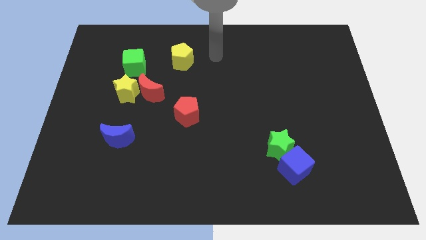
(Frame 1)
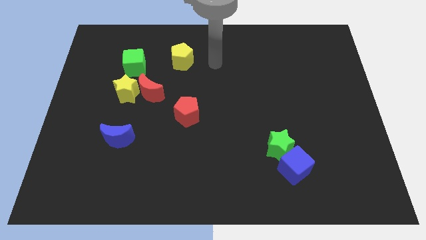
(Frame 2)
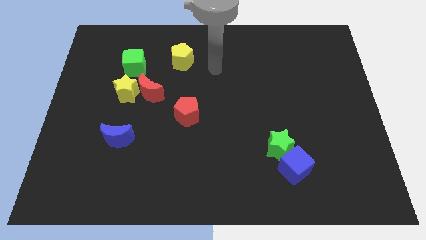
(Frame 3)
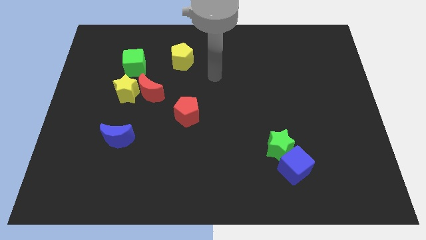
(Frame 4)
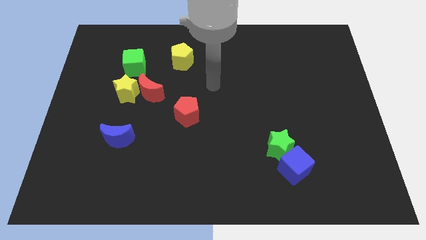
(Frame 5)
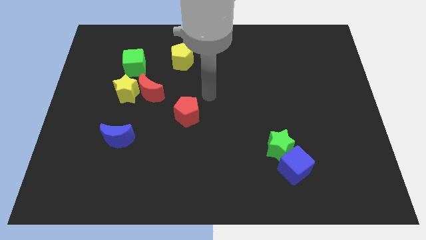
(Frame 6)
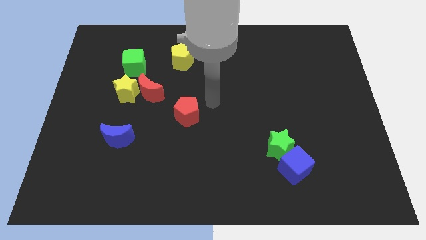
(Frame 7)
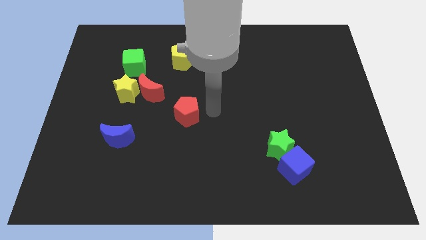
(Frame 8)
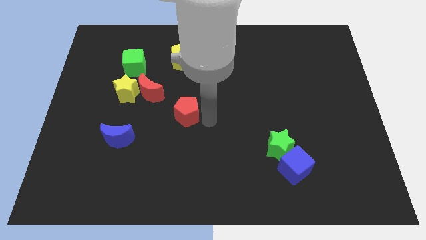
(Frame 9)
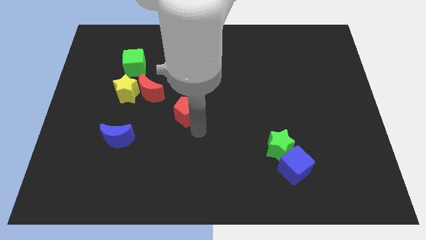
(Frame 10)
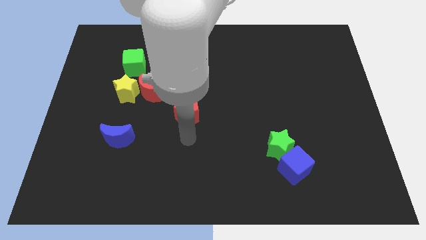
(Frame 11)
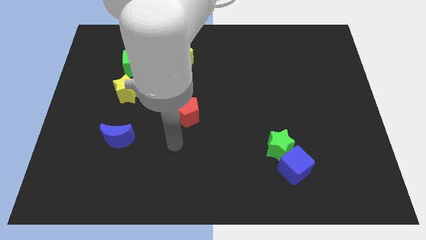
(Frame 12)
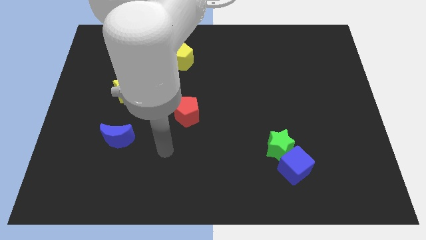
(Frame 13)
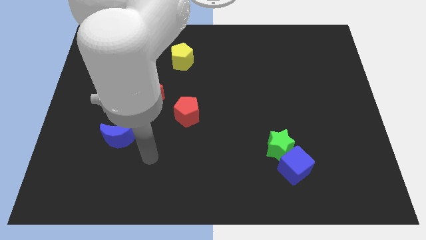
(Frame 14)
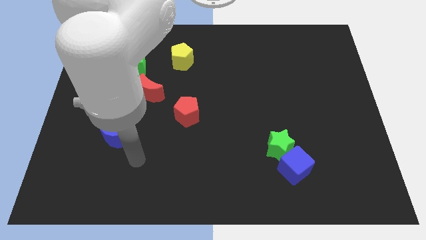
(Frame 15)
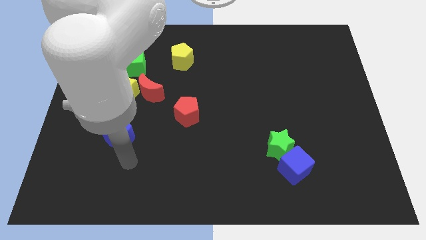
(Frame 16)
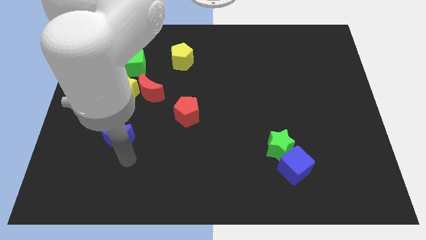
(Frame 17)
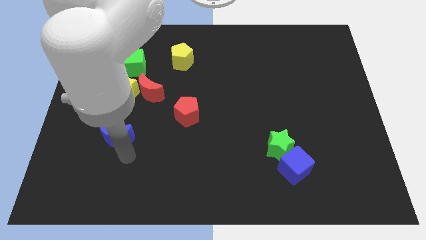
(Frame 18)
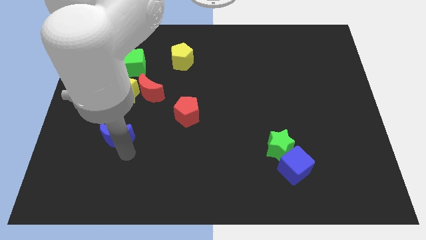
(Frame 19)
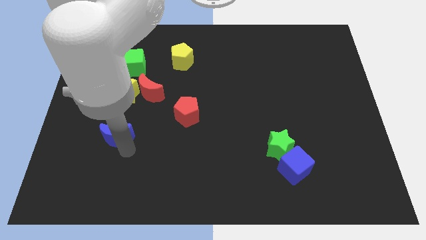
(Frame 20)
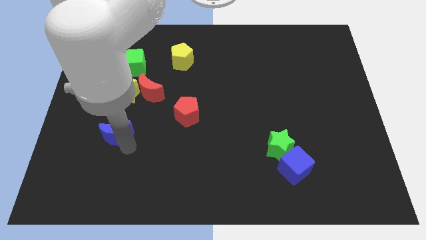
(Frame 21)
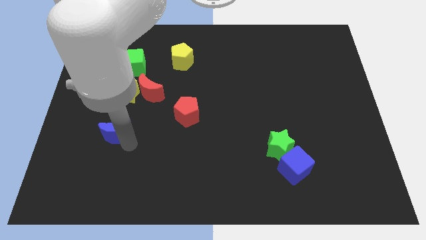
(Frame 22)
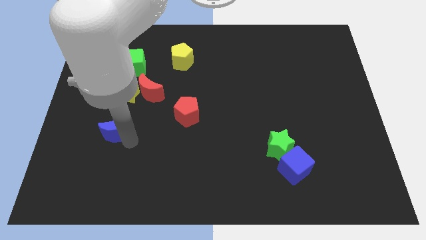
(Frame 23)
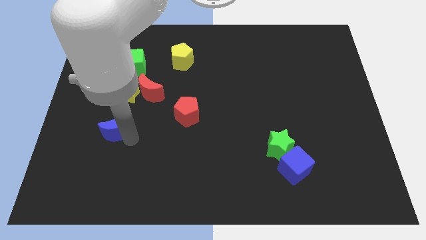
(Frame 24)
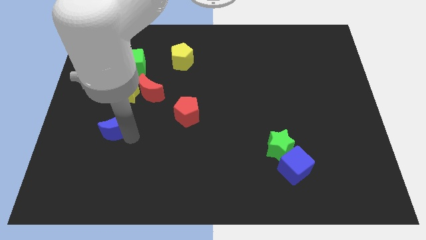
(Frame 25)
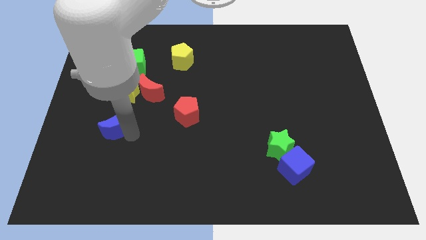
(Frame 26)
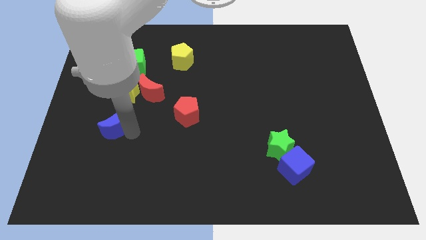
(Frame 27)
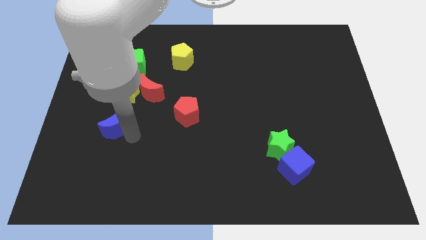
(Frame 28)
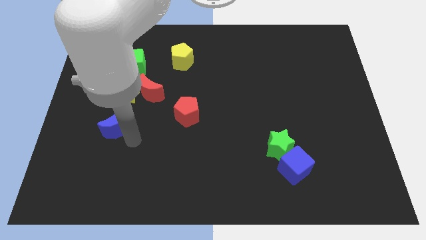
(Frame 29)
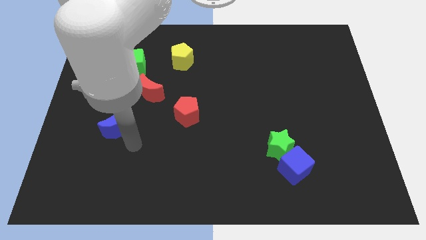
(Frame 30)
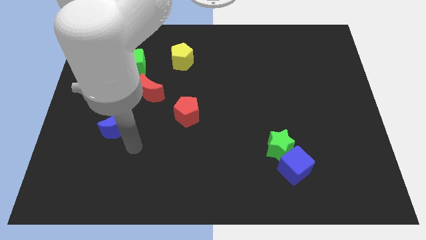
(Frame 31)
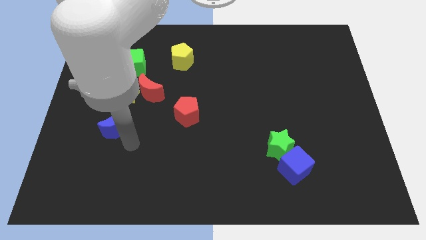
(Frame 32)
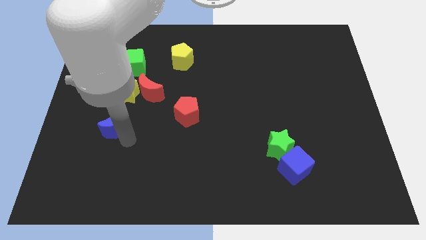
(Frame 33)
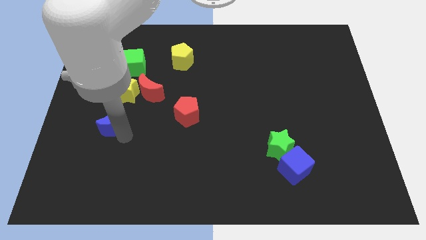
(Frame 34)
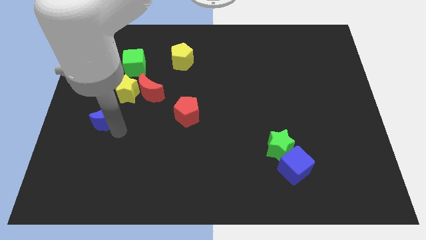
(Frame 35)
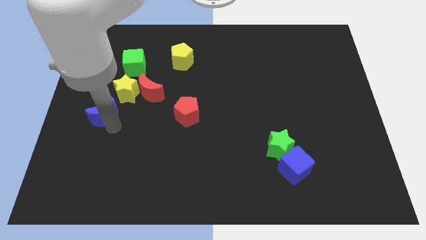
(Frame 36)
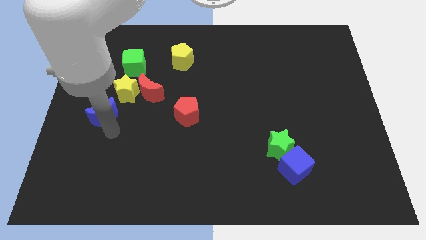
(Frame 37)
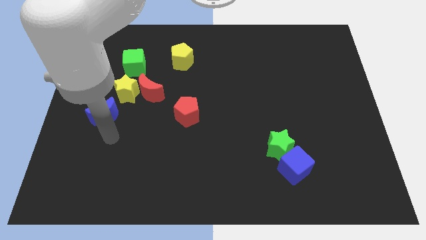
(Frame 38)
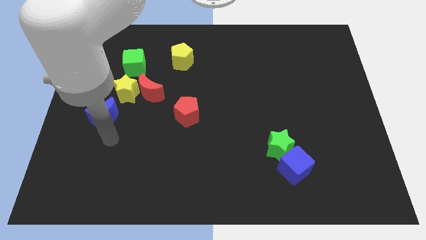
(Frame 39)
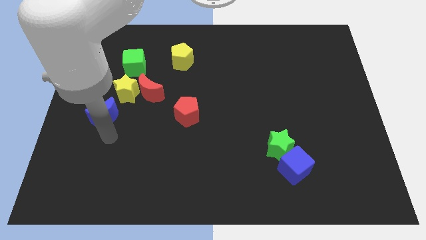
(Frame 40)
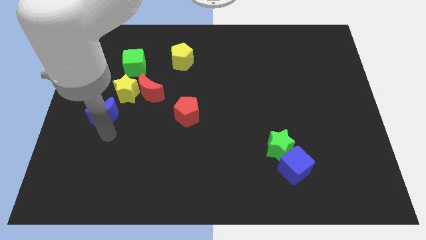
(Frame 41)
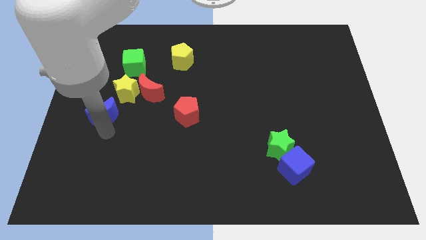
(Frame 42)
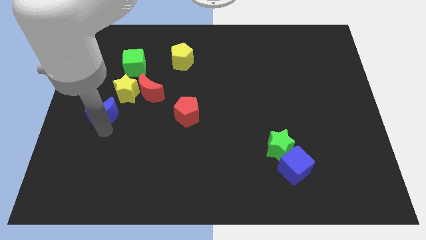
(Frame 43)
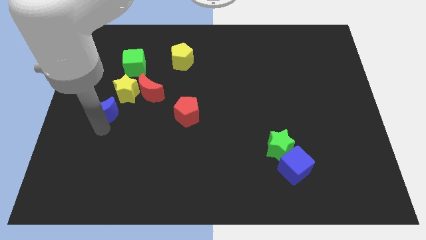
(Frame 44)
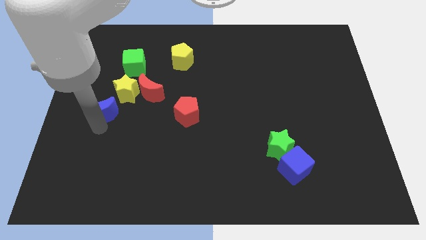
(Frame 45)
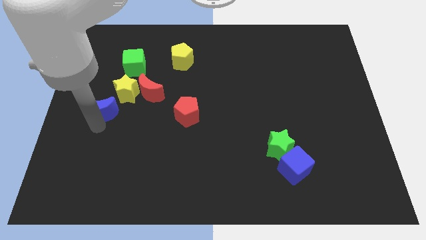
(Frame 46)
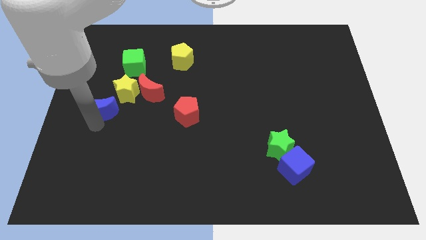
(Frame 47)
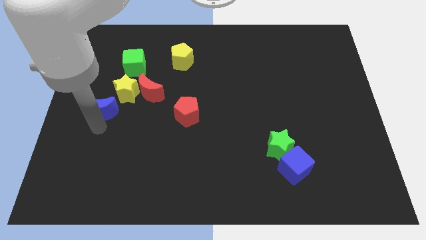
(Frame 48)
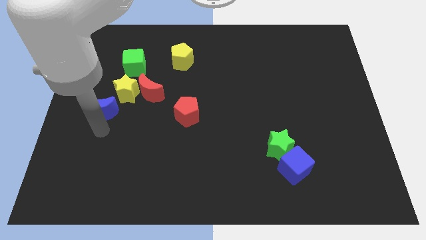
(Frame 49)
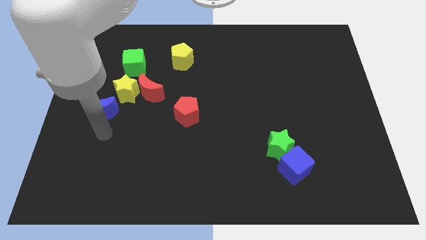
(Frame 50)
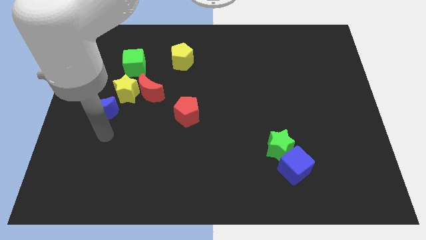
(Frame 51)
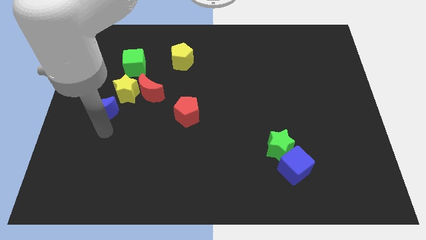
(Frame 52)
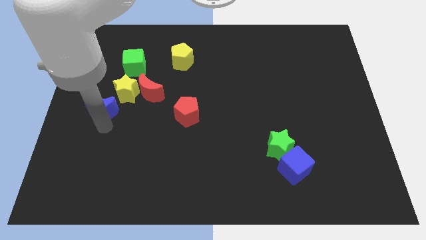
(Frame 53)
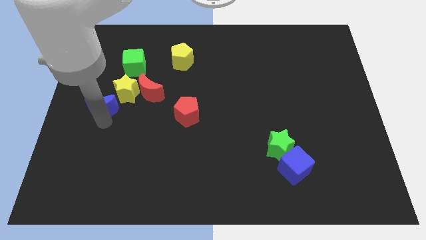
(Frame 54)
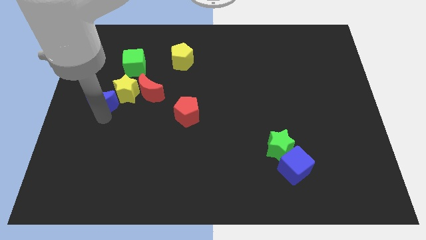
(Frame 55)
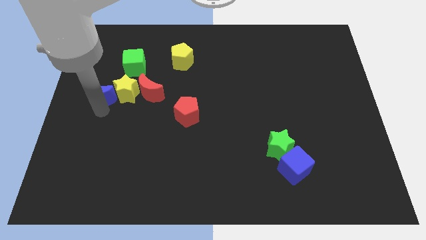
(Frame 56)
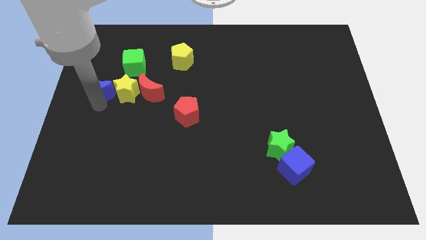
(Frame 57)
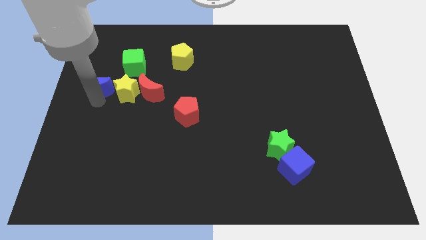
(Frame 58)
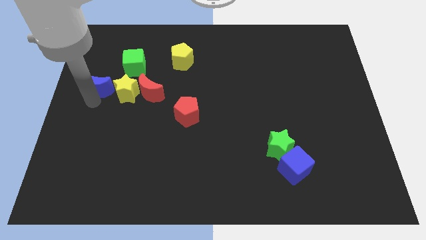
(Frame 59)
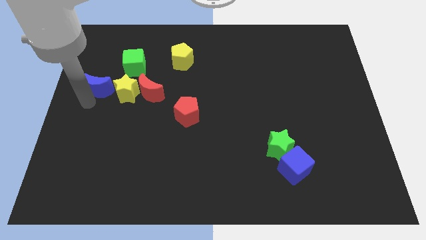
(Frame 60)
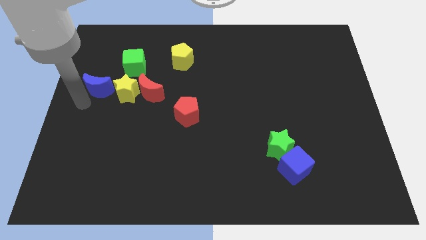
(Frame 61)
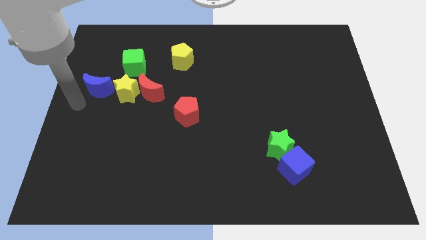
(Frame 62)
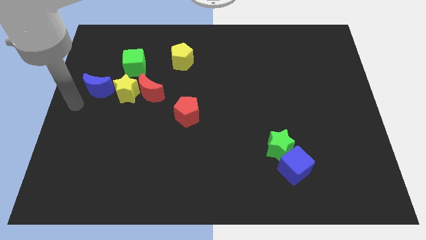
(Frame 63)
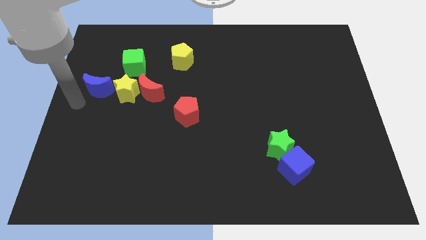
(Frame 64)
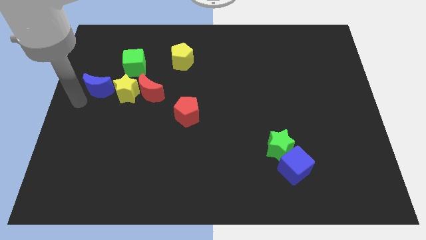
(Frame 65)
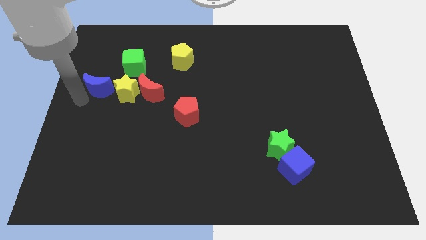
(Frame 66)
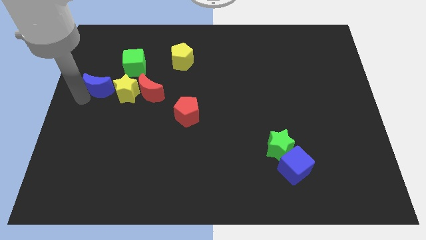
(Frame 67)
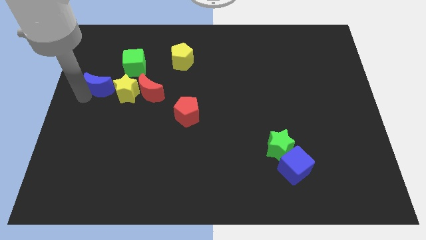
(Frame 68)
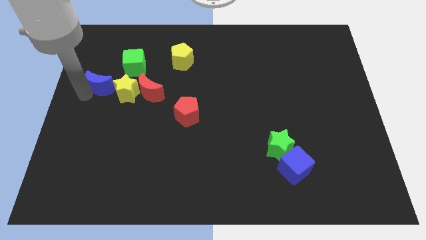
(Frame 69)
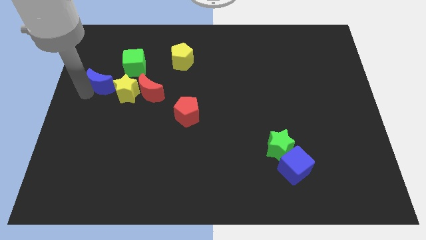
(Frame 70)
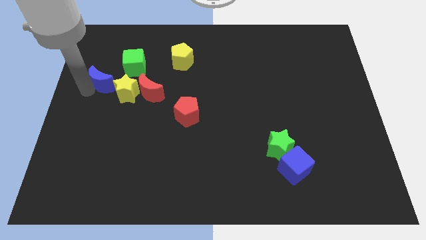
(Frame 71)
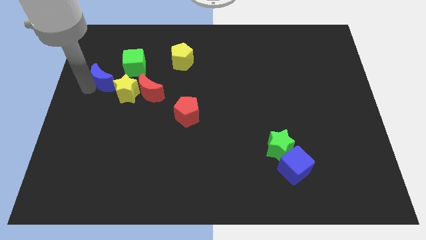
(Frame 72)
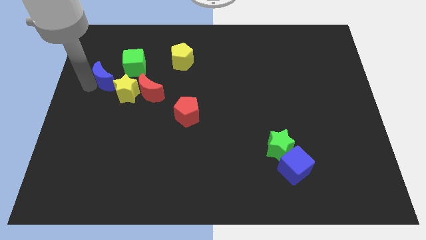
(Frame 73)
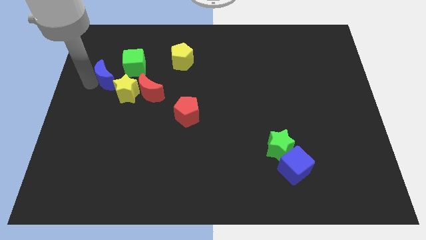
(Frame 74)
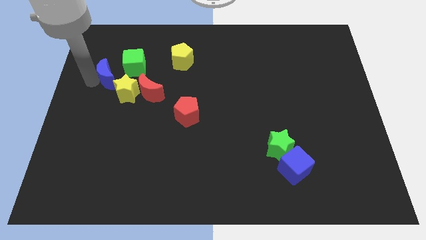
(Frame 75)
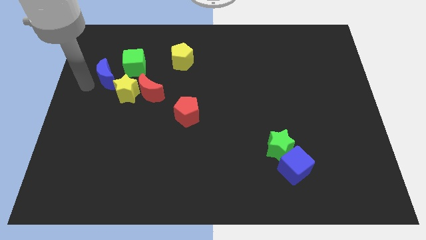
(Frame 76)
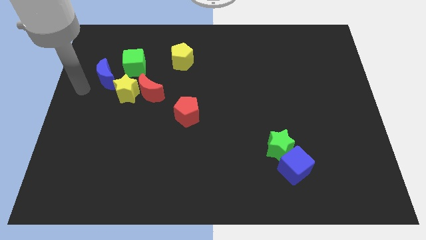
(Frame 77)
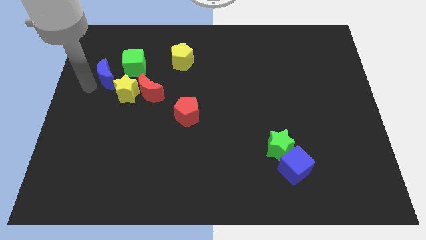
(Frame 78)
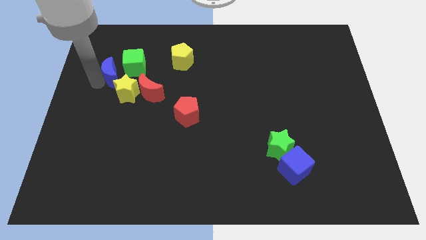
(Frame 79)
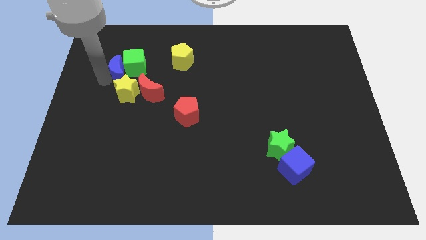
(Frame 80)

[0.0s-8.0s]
slide the blue moon towards the green cube
